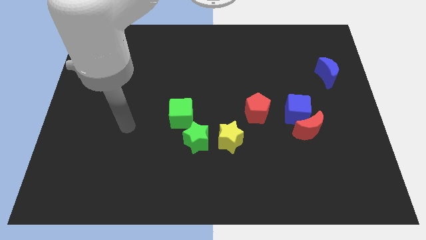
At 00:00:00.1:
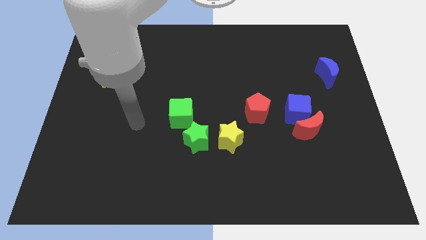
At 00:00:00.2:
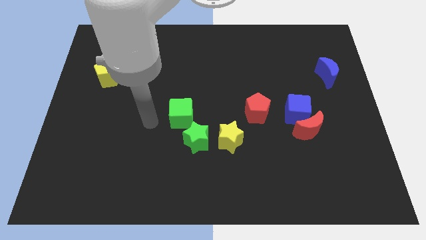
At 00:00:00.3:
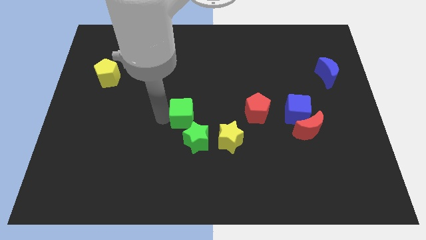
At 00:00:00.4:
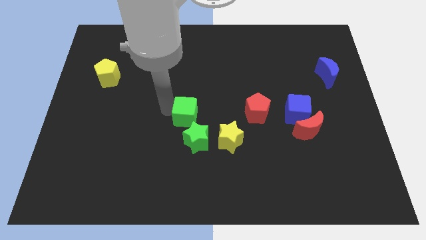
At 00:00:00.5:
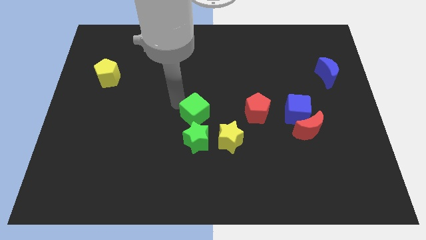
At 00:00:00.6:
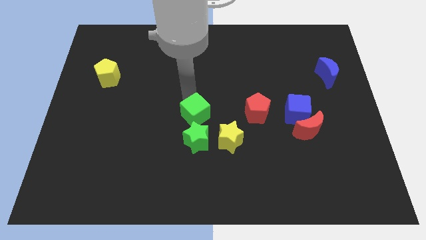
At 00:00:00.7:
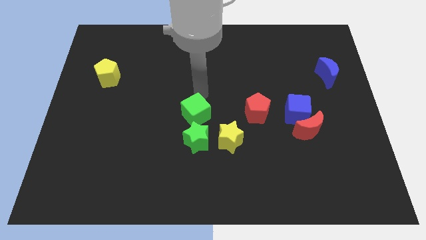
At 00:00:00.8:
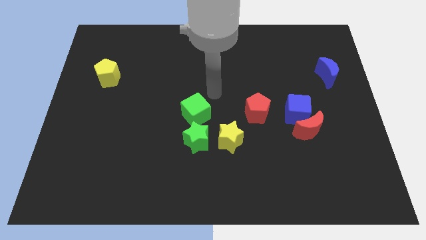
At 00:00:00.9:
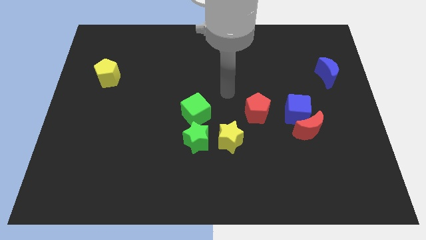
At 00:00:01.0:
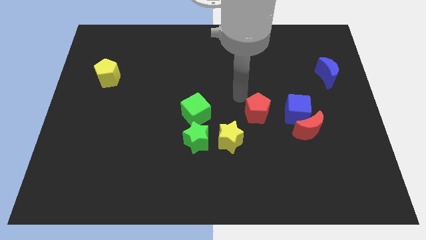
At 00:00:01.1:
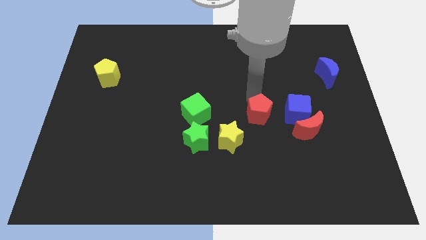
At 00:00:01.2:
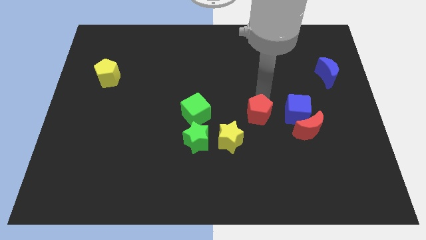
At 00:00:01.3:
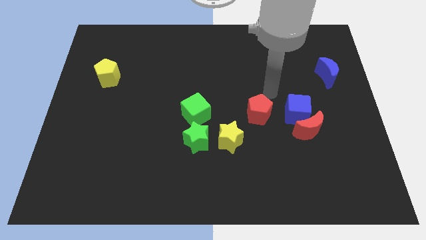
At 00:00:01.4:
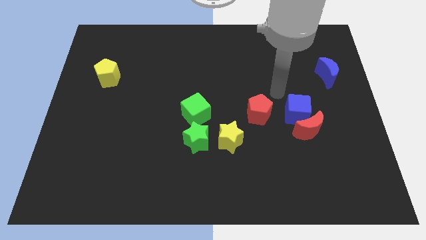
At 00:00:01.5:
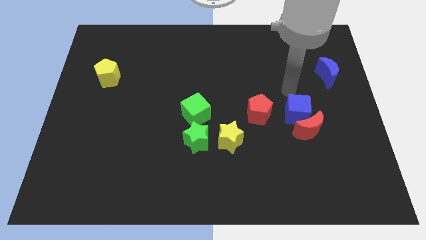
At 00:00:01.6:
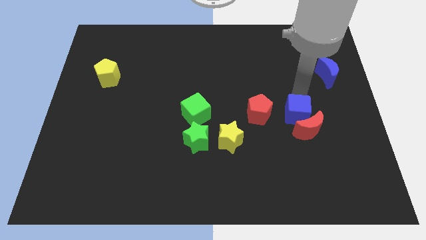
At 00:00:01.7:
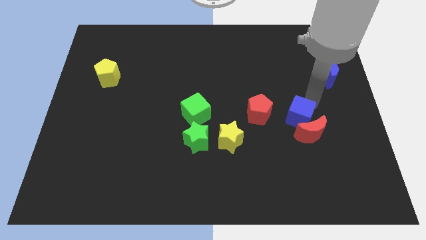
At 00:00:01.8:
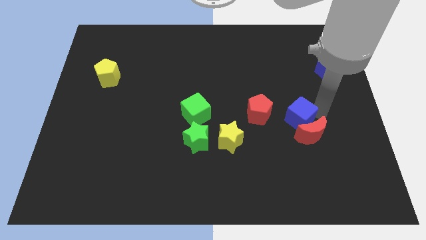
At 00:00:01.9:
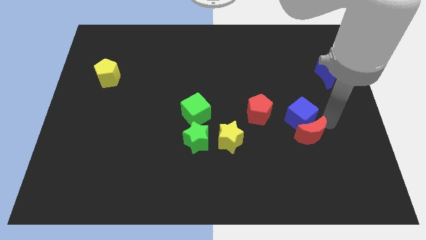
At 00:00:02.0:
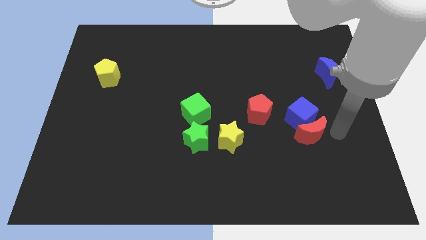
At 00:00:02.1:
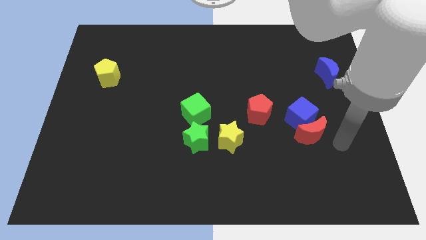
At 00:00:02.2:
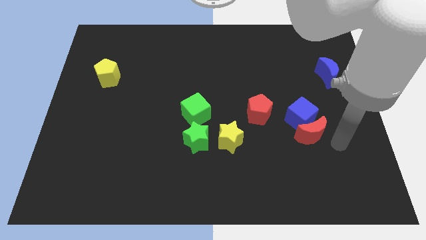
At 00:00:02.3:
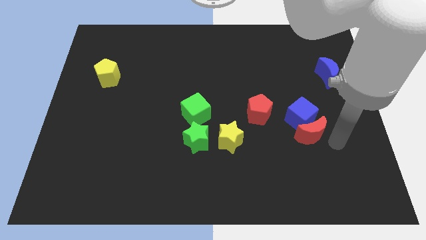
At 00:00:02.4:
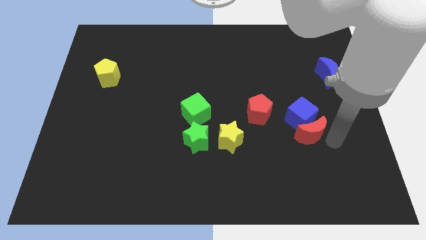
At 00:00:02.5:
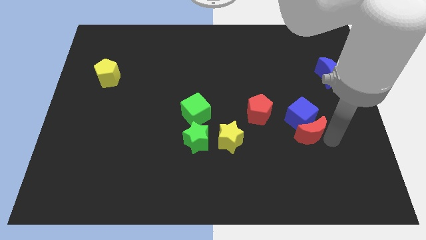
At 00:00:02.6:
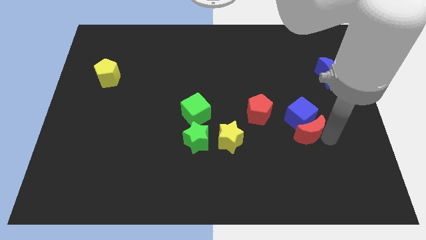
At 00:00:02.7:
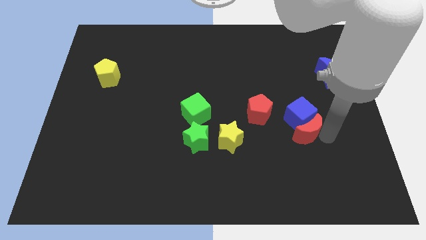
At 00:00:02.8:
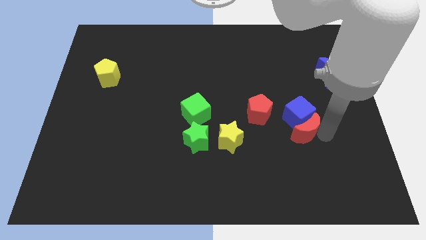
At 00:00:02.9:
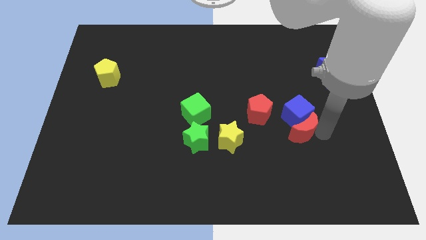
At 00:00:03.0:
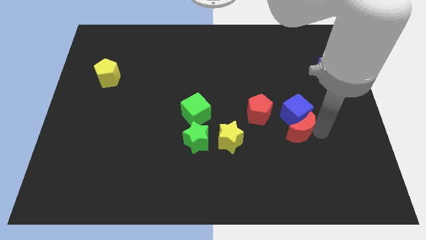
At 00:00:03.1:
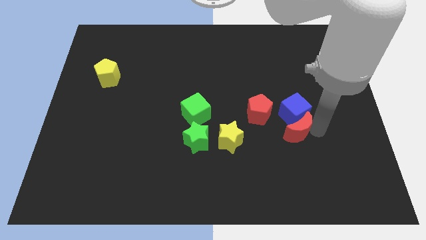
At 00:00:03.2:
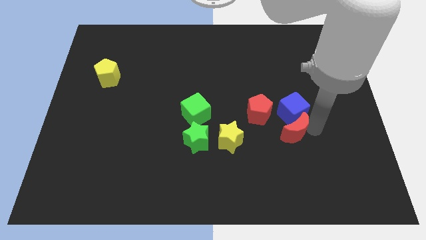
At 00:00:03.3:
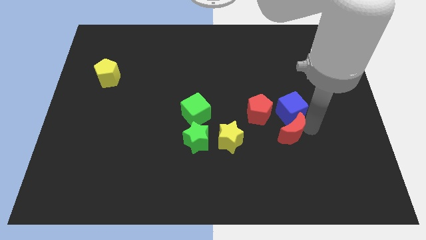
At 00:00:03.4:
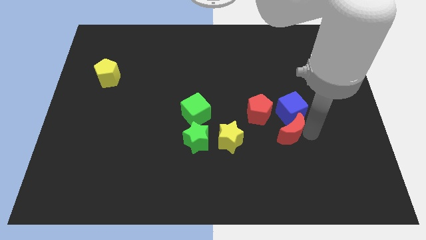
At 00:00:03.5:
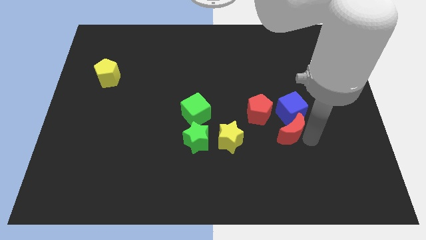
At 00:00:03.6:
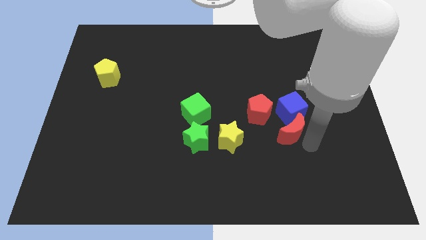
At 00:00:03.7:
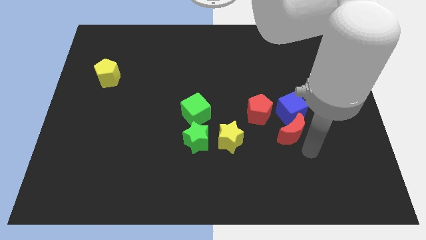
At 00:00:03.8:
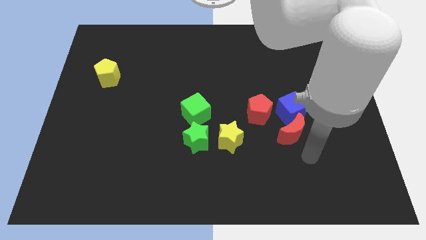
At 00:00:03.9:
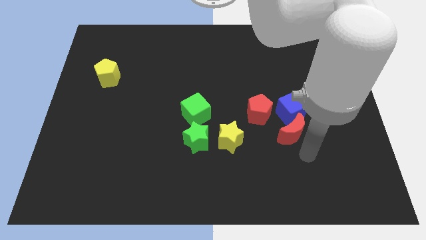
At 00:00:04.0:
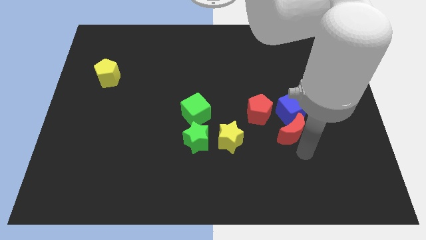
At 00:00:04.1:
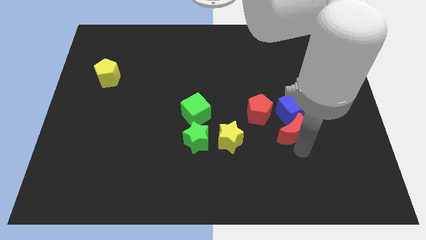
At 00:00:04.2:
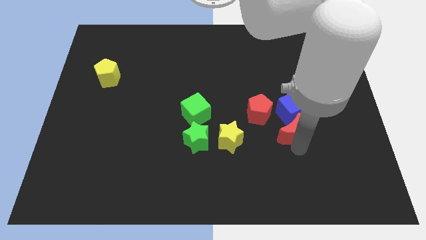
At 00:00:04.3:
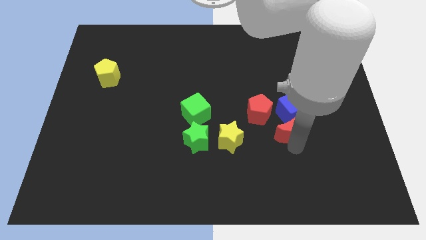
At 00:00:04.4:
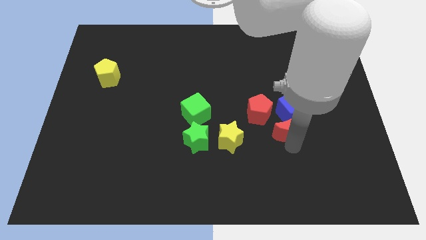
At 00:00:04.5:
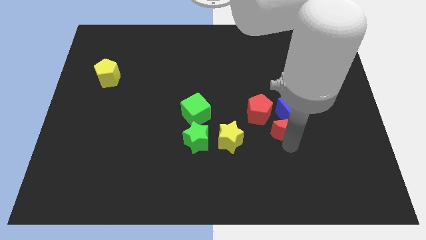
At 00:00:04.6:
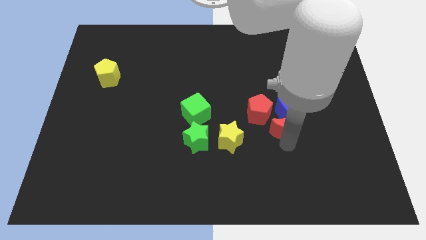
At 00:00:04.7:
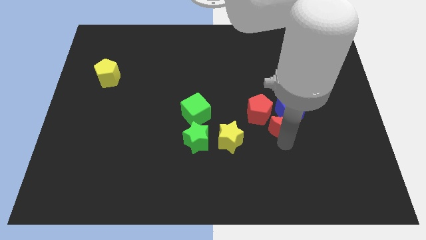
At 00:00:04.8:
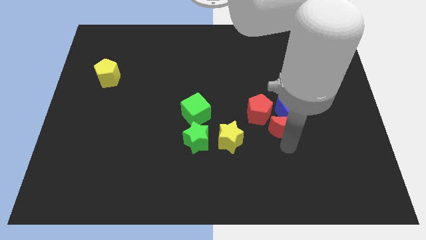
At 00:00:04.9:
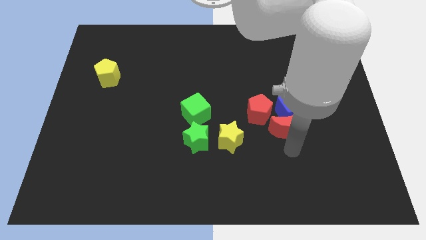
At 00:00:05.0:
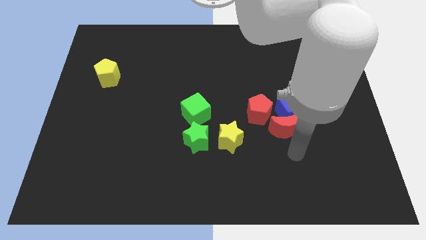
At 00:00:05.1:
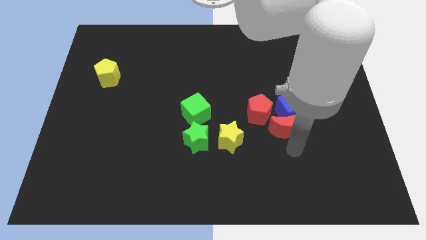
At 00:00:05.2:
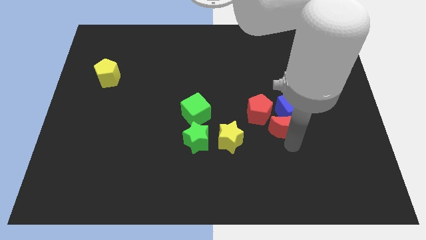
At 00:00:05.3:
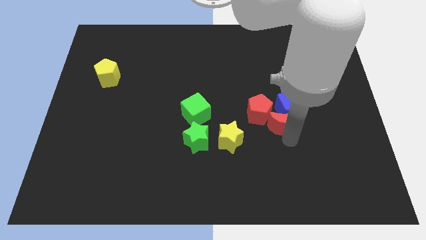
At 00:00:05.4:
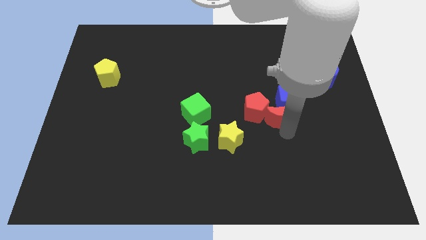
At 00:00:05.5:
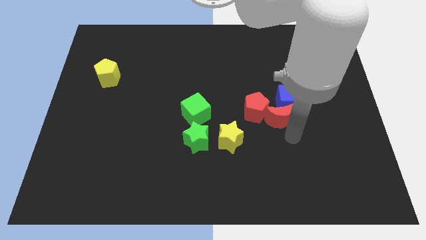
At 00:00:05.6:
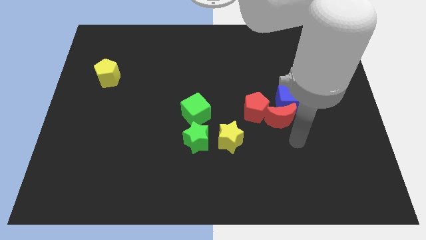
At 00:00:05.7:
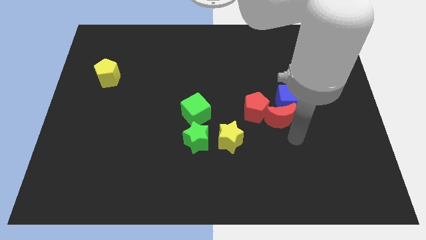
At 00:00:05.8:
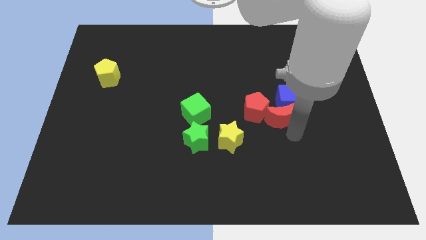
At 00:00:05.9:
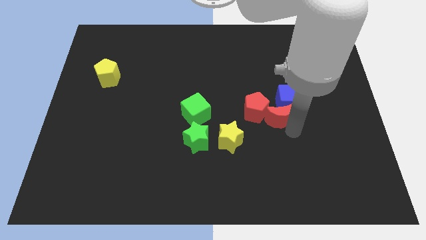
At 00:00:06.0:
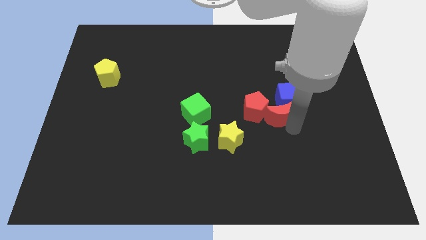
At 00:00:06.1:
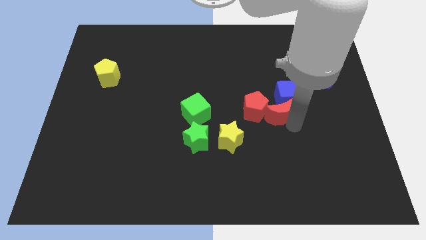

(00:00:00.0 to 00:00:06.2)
slightly slide the red moon upwards and to the left diagonally

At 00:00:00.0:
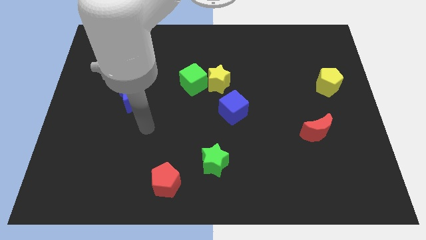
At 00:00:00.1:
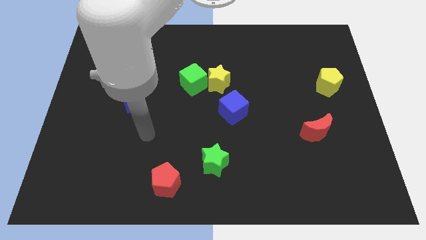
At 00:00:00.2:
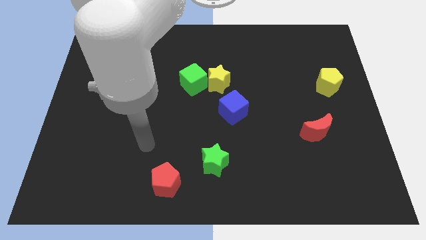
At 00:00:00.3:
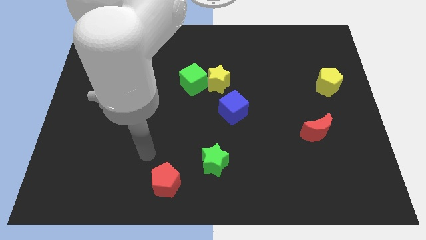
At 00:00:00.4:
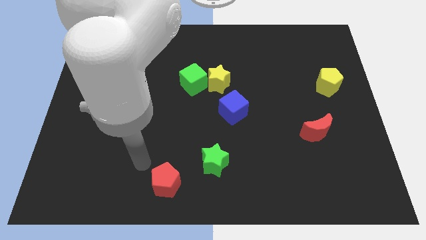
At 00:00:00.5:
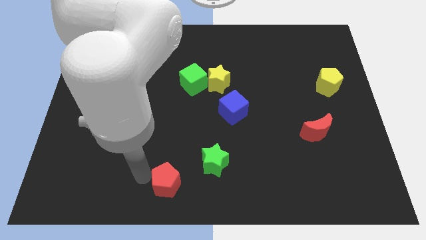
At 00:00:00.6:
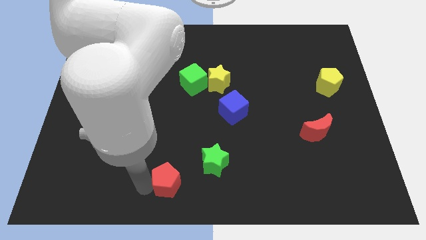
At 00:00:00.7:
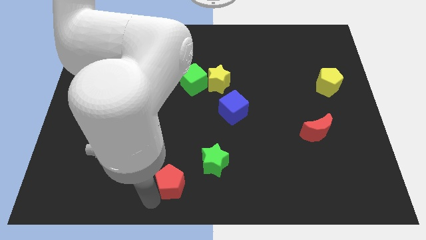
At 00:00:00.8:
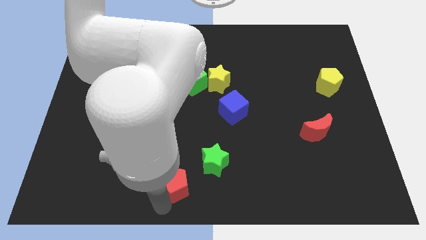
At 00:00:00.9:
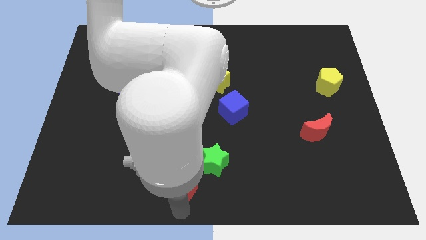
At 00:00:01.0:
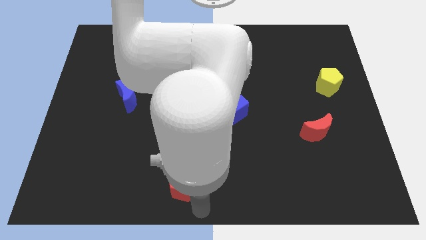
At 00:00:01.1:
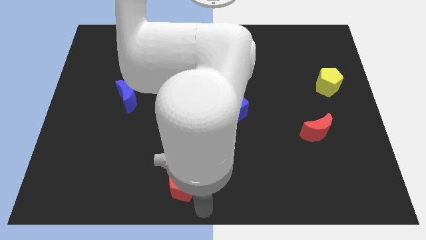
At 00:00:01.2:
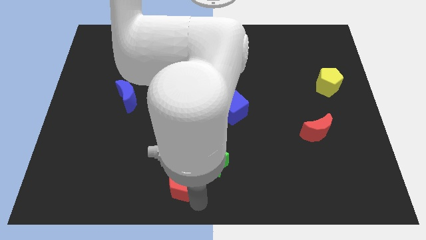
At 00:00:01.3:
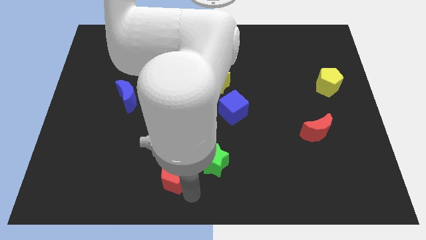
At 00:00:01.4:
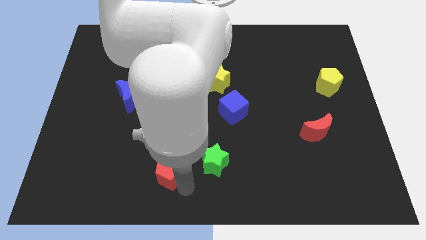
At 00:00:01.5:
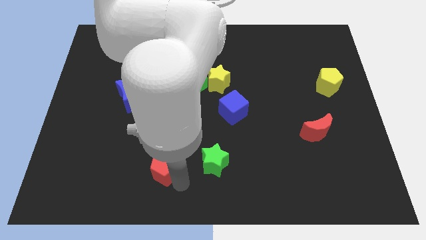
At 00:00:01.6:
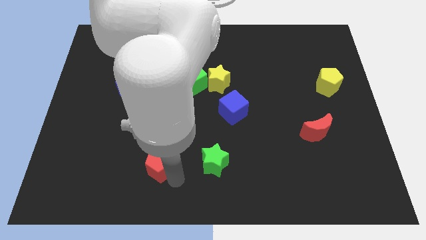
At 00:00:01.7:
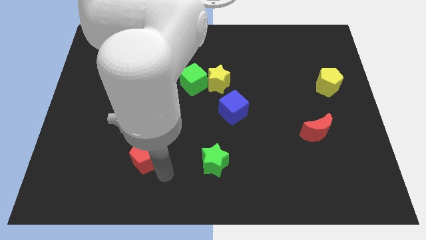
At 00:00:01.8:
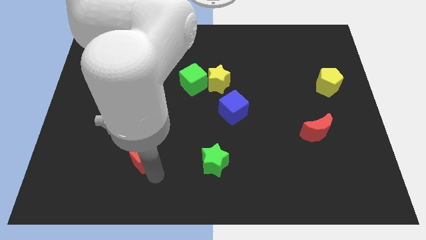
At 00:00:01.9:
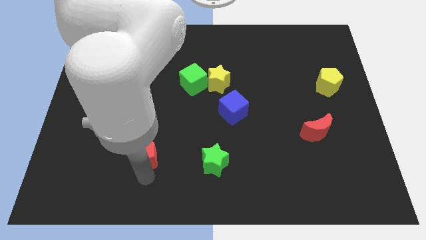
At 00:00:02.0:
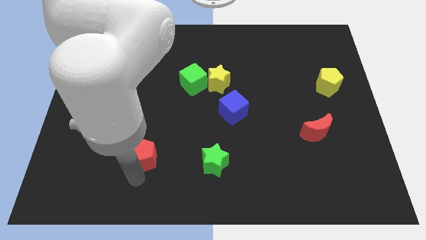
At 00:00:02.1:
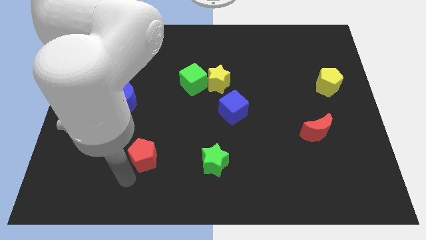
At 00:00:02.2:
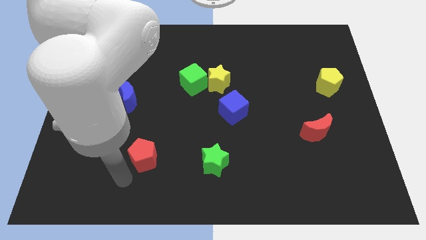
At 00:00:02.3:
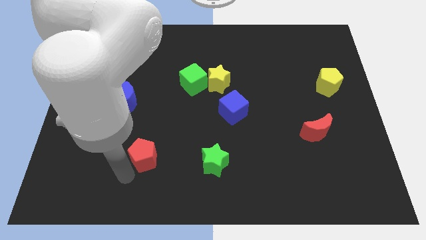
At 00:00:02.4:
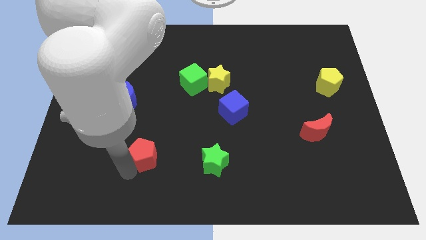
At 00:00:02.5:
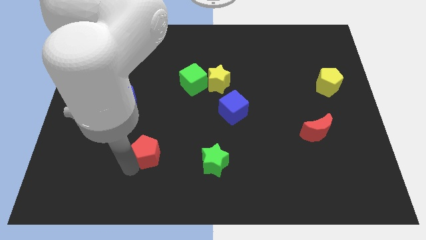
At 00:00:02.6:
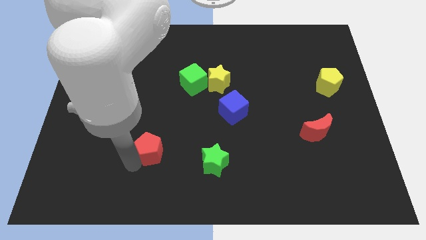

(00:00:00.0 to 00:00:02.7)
move the red pentagon a bit up
